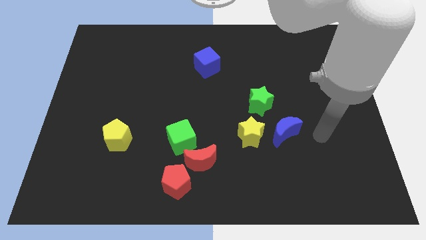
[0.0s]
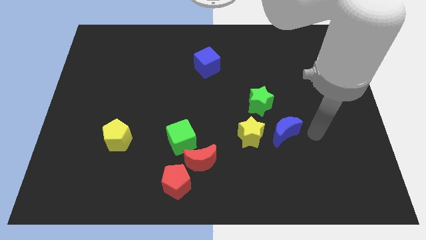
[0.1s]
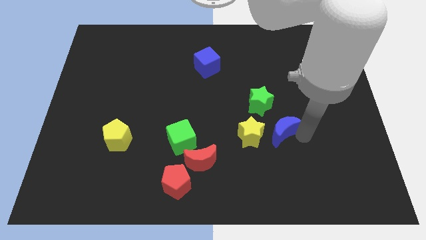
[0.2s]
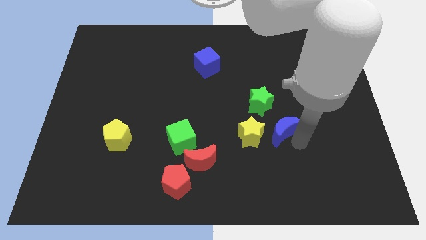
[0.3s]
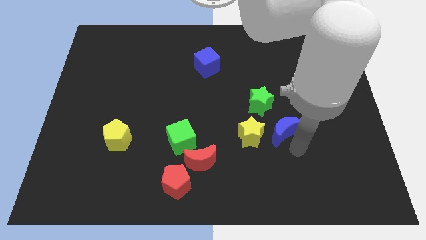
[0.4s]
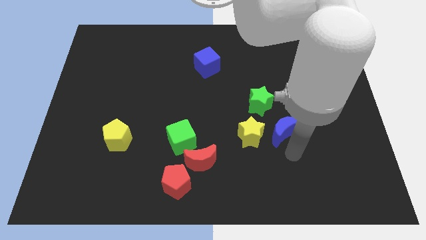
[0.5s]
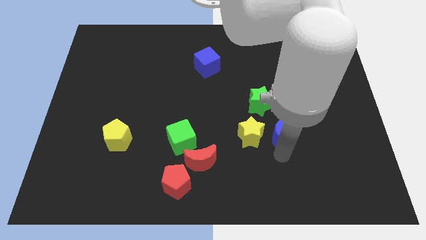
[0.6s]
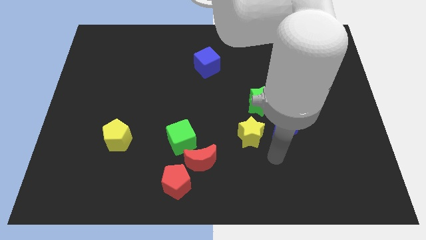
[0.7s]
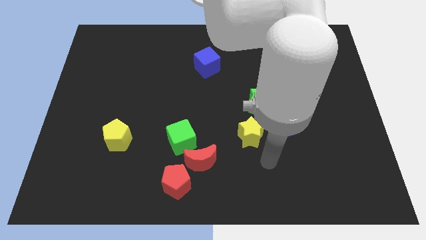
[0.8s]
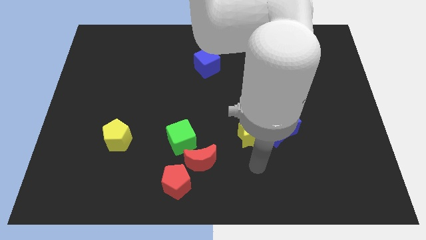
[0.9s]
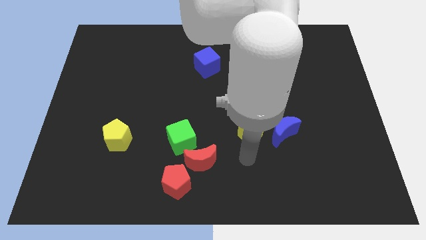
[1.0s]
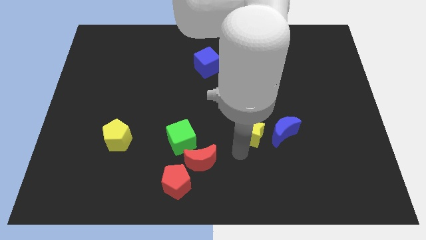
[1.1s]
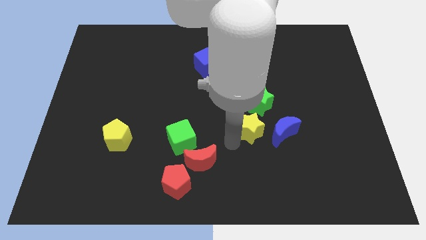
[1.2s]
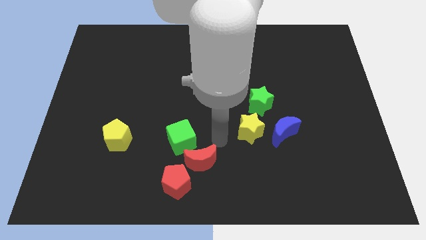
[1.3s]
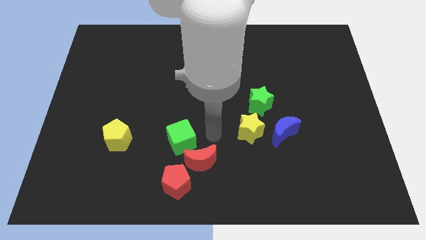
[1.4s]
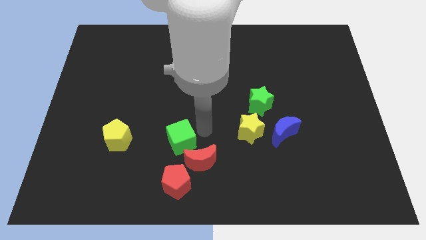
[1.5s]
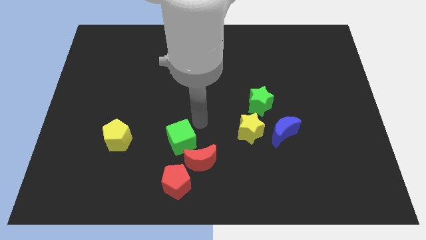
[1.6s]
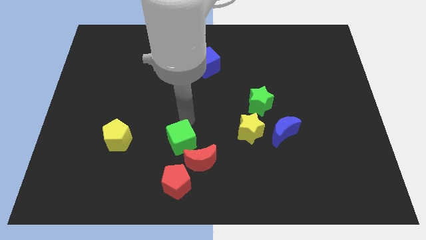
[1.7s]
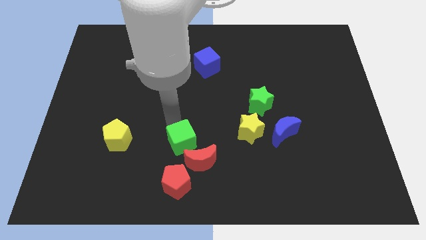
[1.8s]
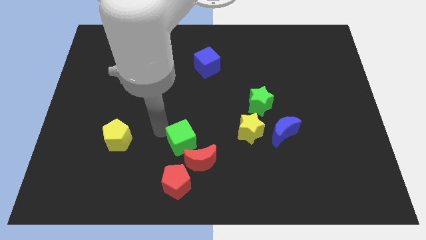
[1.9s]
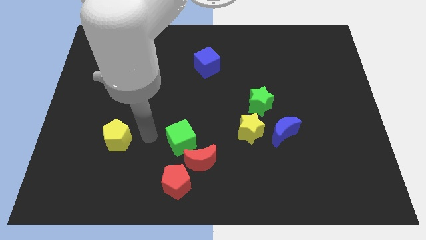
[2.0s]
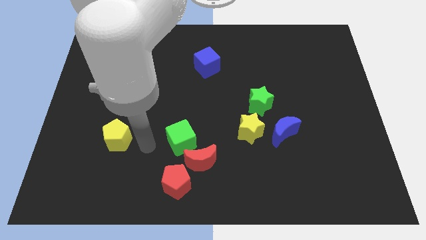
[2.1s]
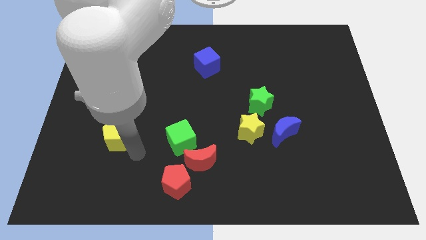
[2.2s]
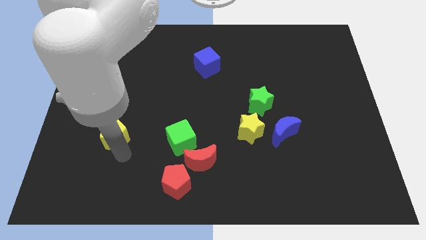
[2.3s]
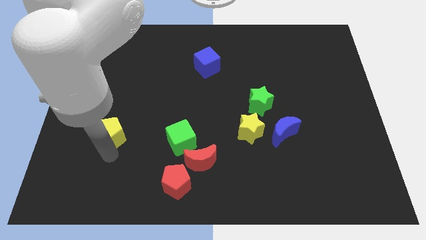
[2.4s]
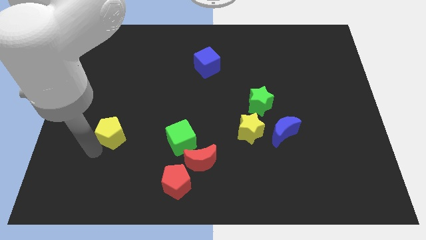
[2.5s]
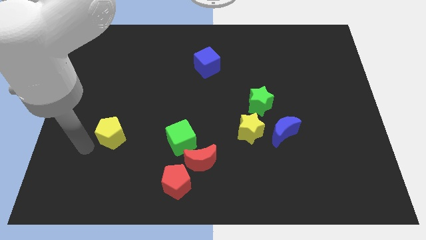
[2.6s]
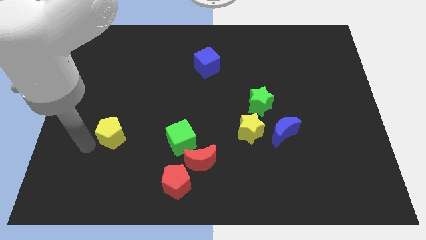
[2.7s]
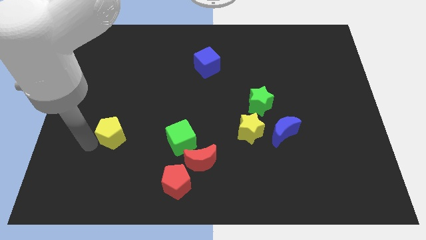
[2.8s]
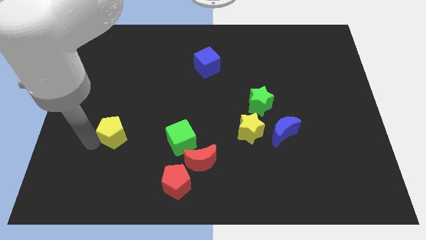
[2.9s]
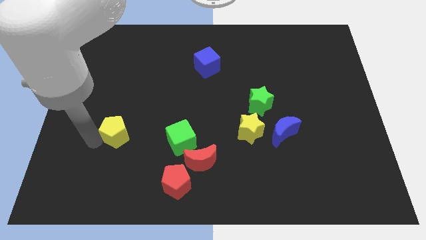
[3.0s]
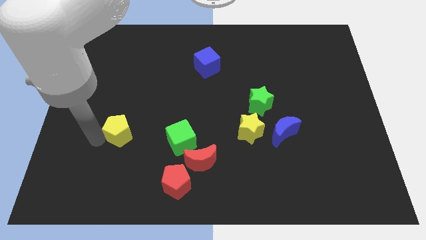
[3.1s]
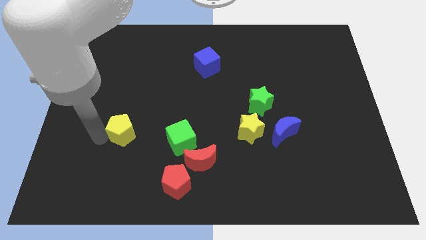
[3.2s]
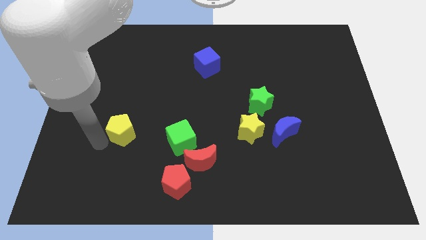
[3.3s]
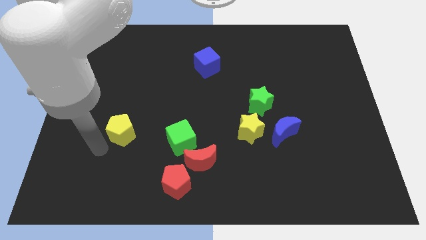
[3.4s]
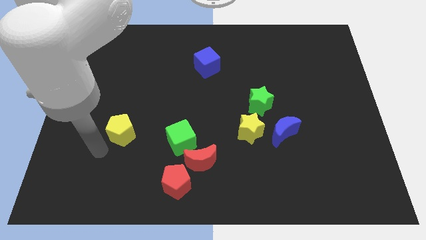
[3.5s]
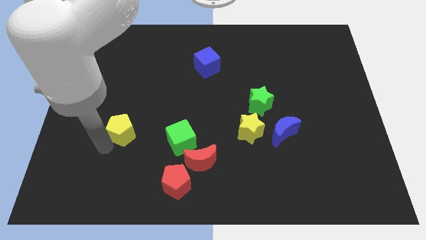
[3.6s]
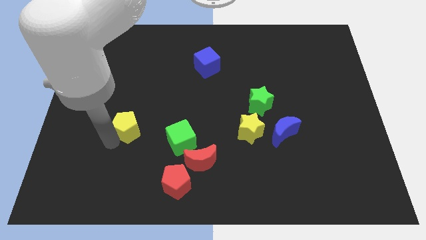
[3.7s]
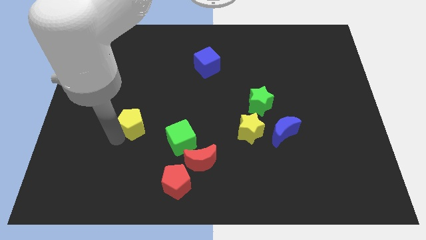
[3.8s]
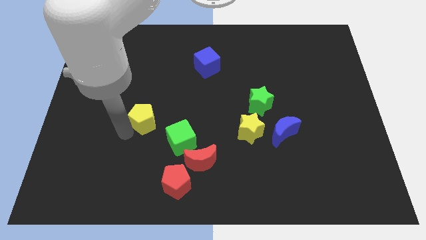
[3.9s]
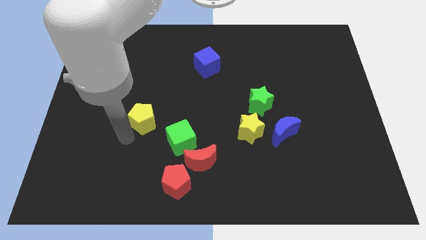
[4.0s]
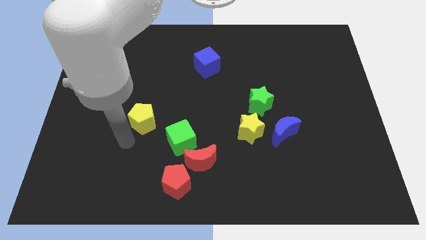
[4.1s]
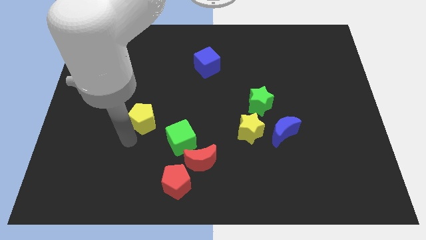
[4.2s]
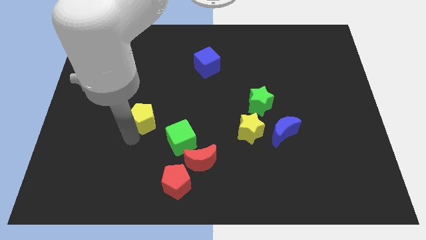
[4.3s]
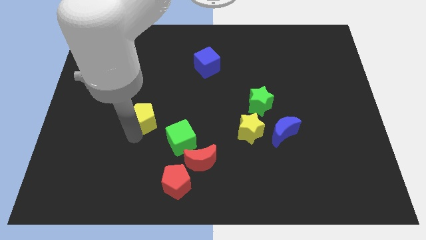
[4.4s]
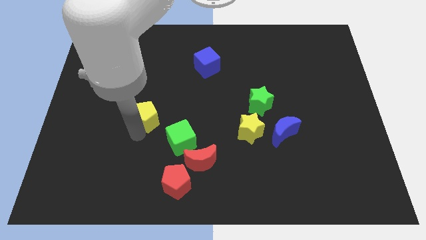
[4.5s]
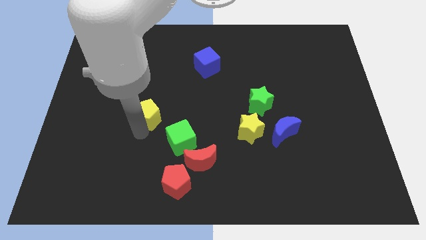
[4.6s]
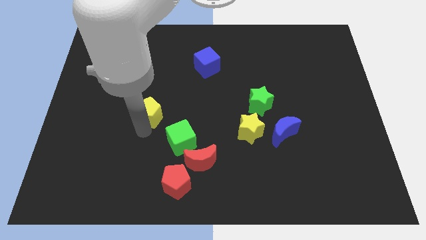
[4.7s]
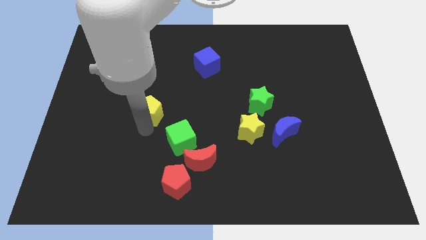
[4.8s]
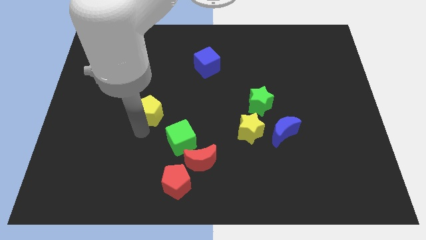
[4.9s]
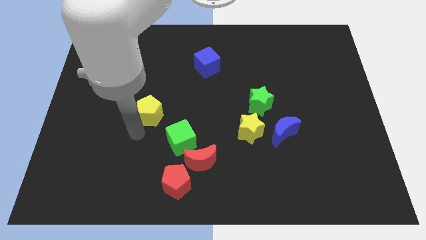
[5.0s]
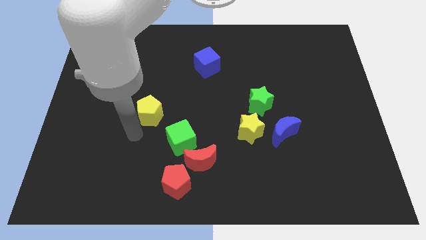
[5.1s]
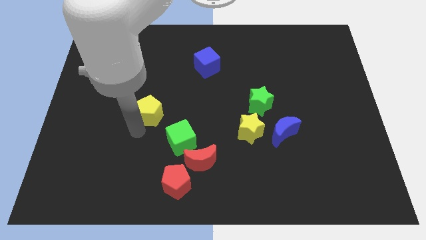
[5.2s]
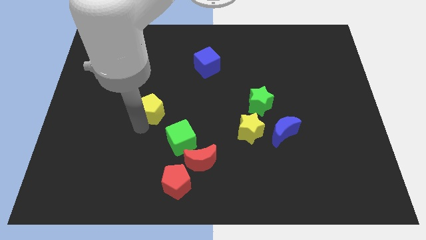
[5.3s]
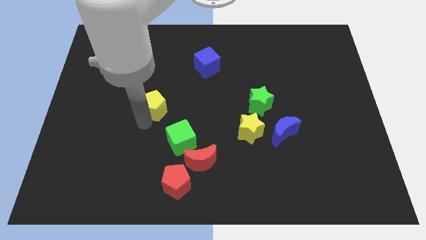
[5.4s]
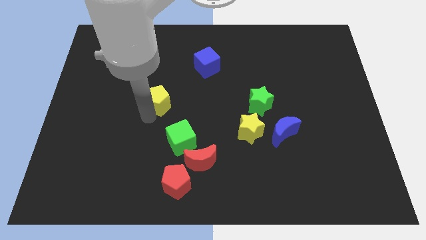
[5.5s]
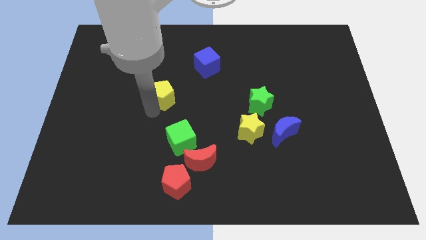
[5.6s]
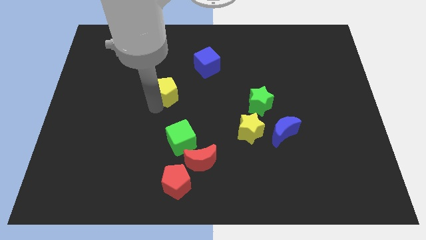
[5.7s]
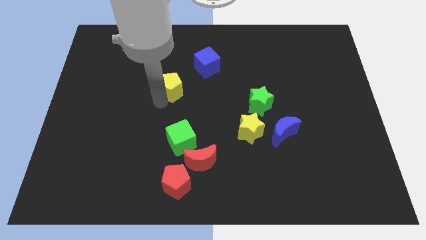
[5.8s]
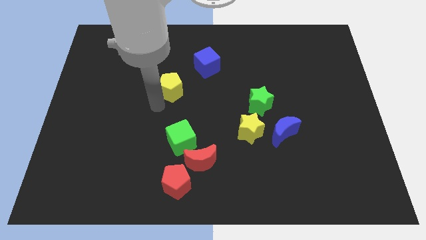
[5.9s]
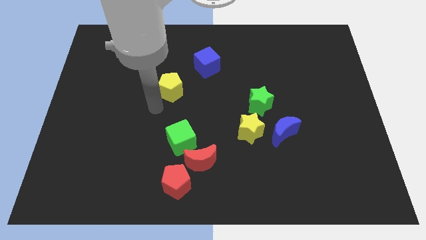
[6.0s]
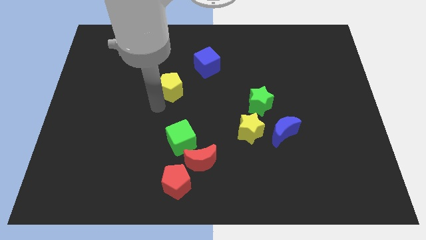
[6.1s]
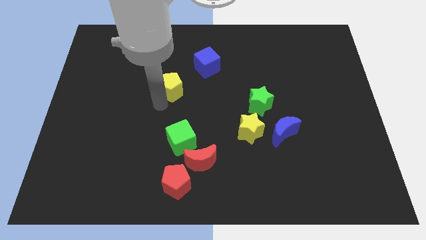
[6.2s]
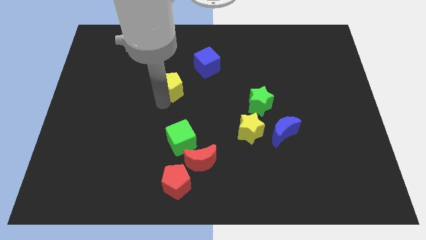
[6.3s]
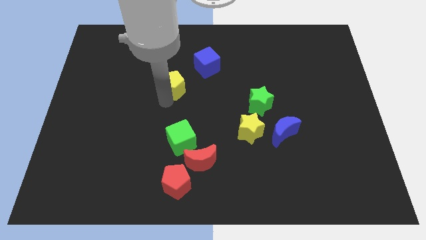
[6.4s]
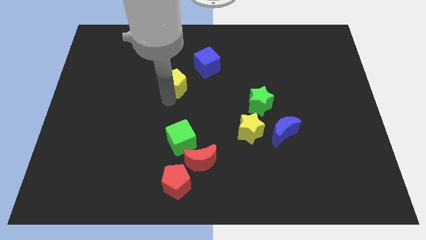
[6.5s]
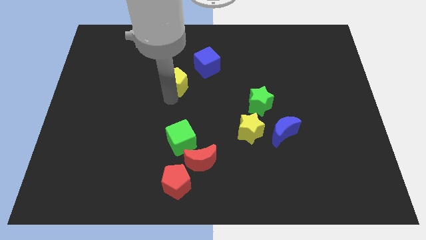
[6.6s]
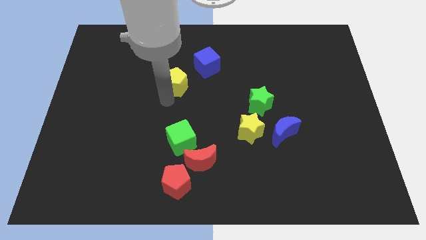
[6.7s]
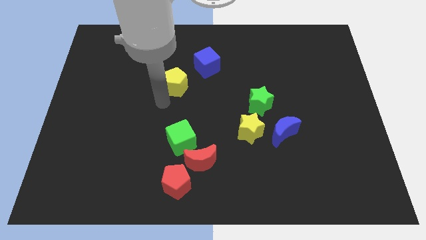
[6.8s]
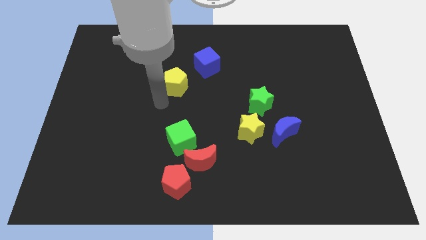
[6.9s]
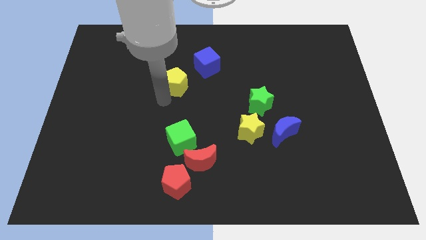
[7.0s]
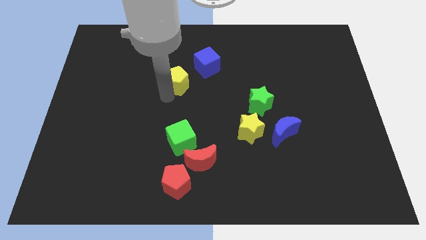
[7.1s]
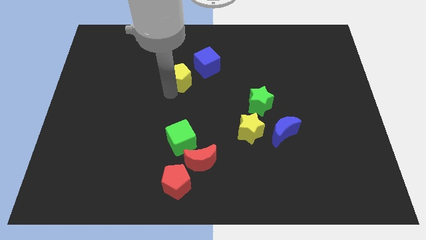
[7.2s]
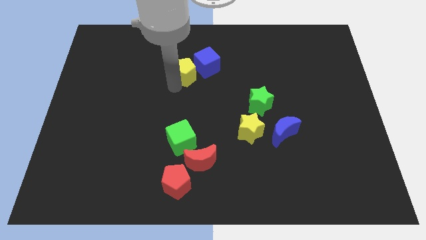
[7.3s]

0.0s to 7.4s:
move the yellow pentagon next to the blue cube

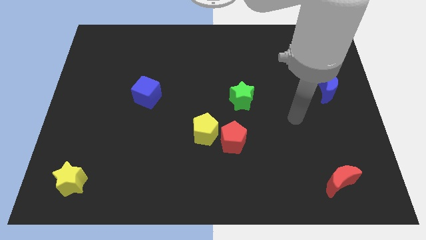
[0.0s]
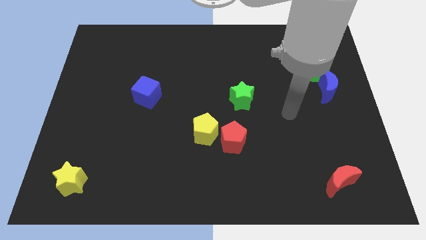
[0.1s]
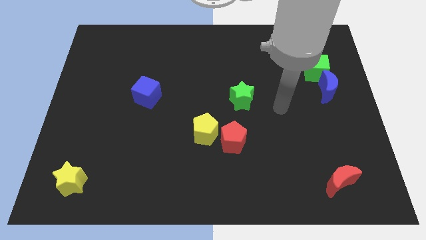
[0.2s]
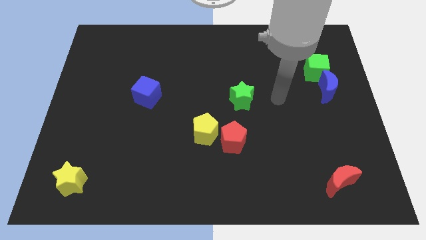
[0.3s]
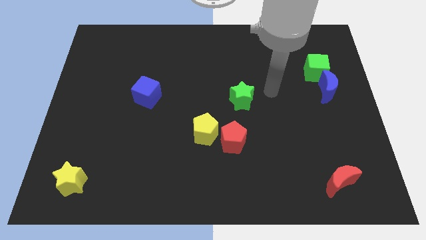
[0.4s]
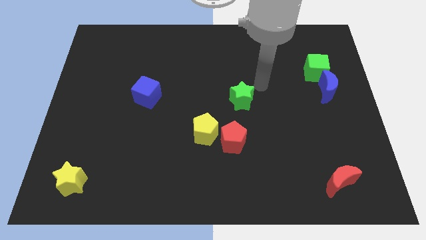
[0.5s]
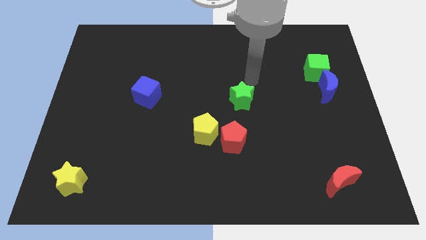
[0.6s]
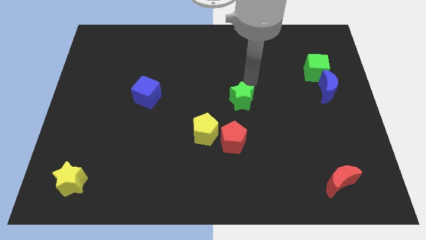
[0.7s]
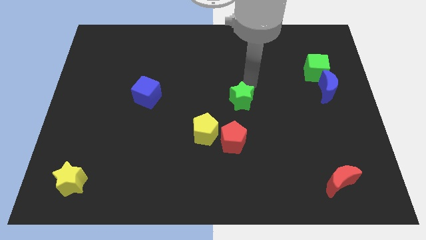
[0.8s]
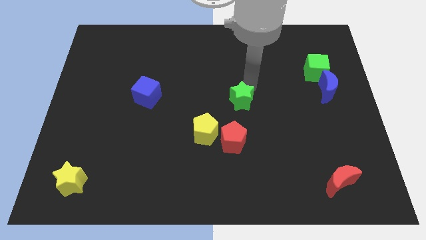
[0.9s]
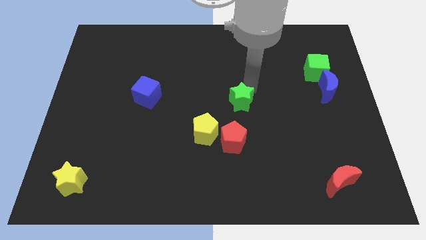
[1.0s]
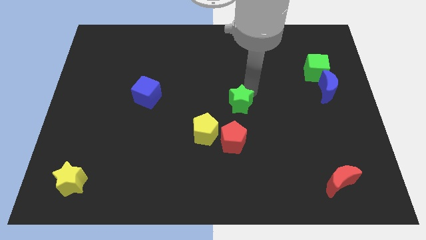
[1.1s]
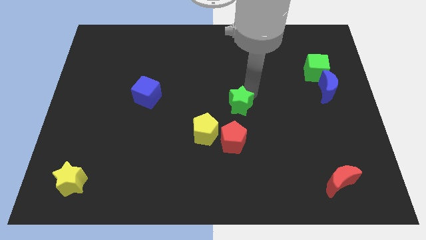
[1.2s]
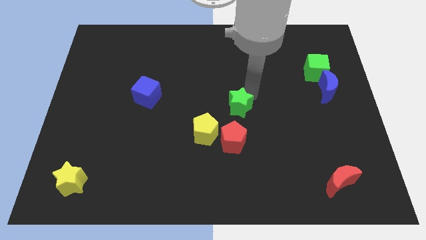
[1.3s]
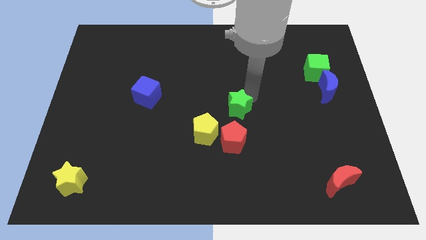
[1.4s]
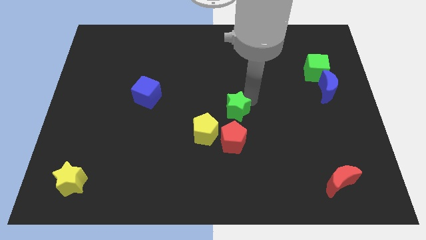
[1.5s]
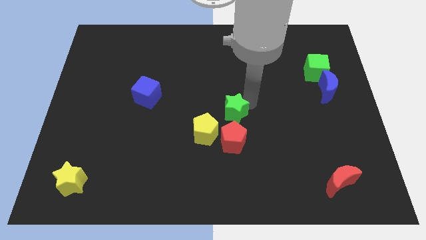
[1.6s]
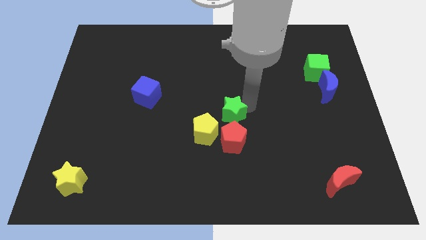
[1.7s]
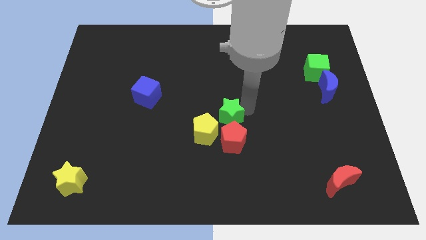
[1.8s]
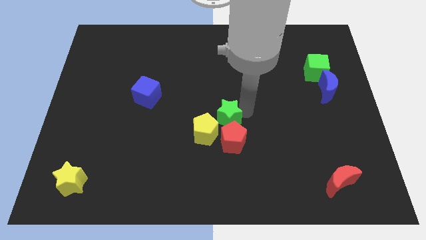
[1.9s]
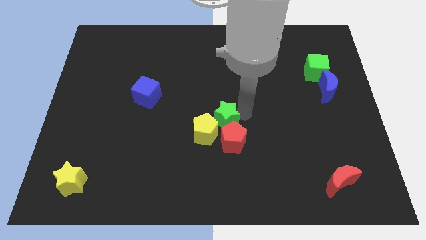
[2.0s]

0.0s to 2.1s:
put the green star close to the yellow pentagon
